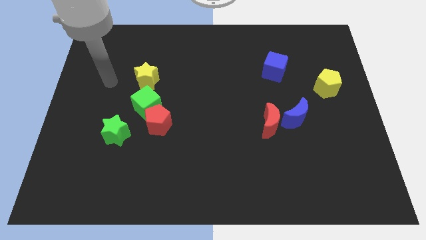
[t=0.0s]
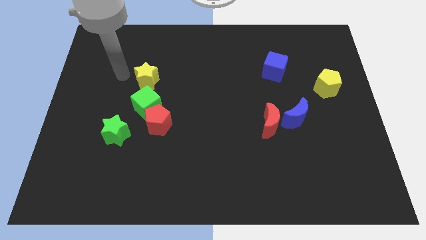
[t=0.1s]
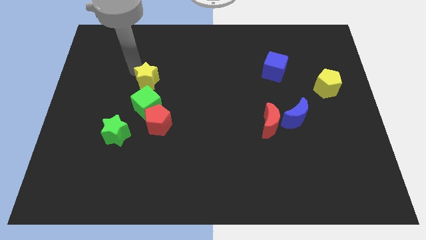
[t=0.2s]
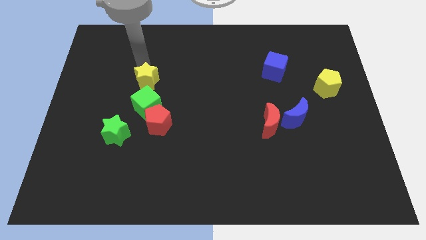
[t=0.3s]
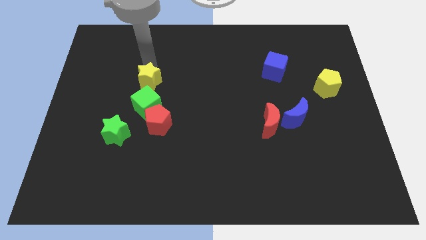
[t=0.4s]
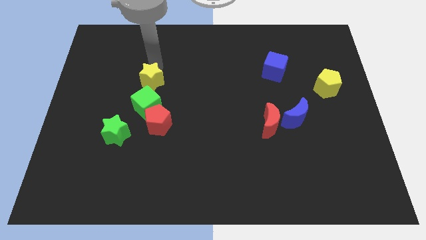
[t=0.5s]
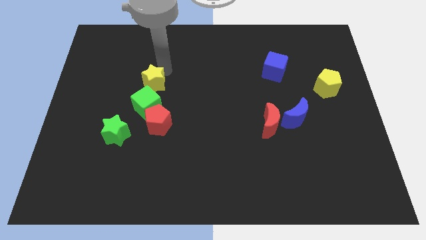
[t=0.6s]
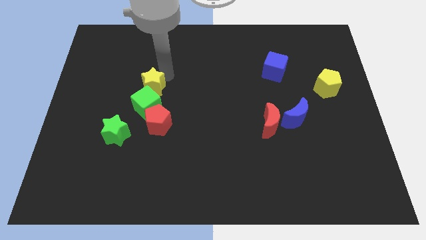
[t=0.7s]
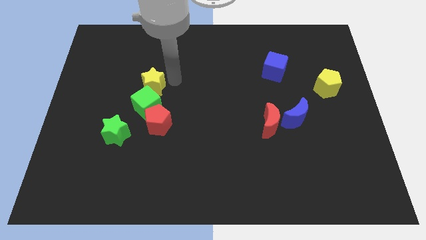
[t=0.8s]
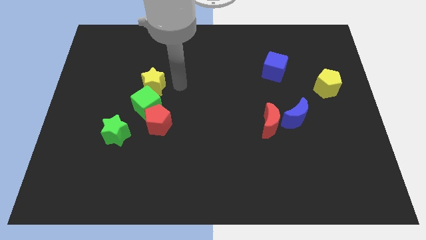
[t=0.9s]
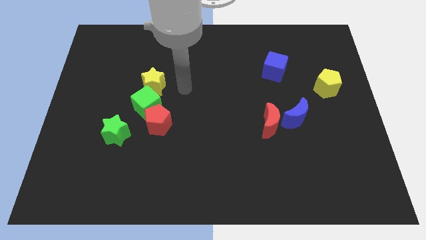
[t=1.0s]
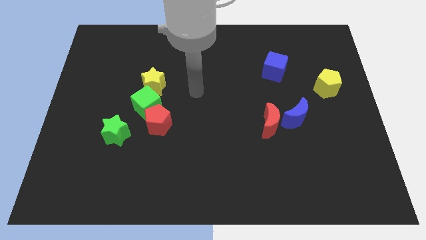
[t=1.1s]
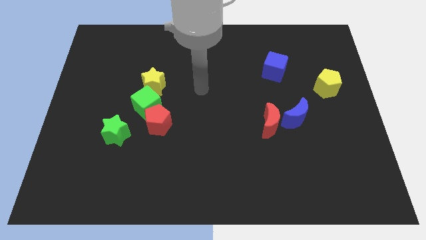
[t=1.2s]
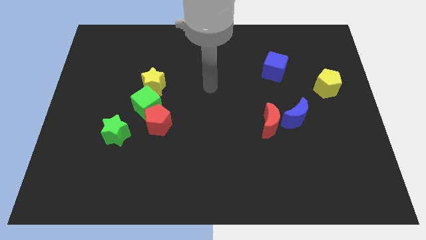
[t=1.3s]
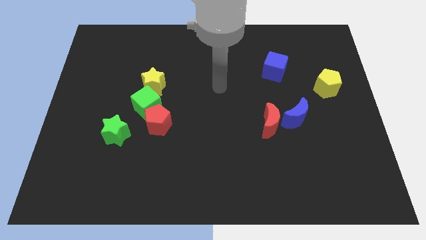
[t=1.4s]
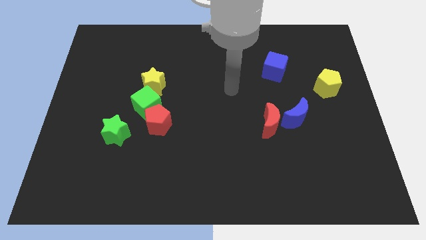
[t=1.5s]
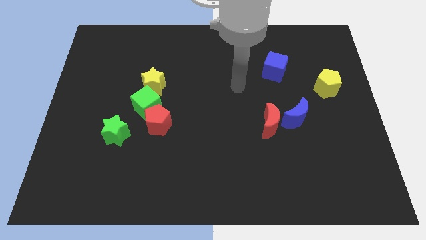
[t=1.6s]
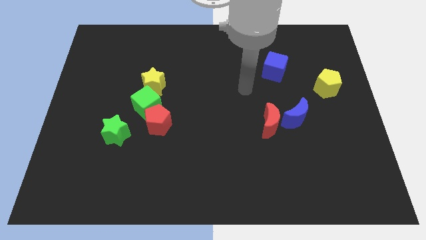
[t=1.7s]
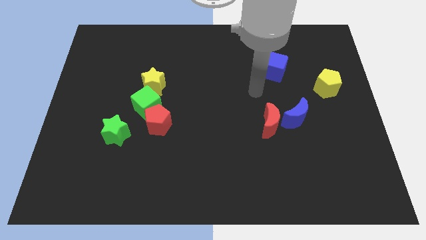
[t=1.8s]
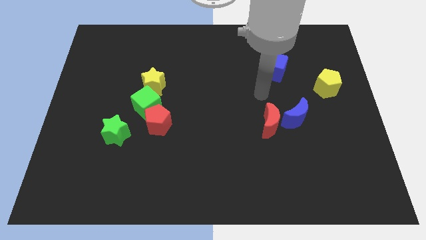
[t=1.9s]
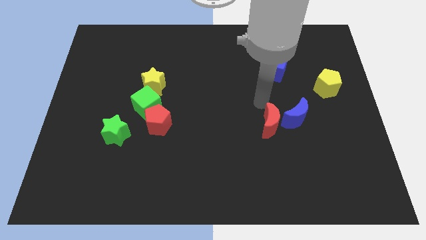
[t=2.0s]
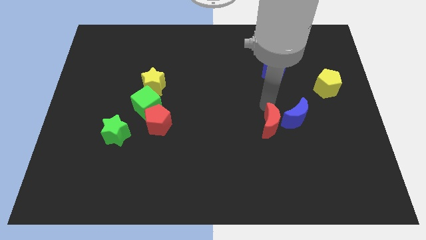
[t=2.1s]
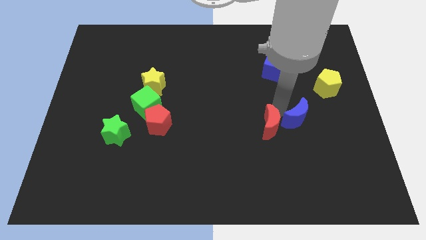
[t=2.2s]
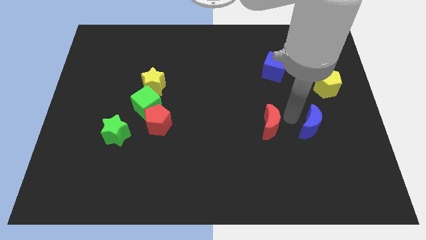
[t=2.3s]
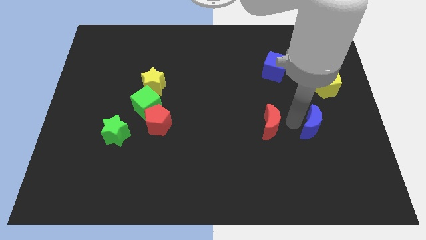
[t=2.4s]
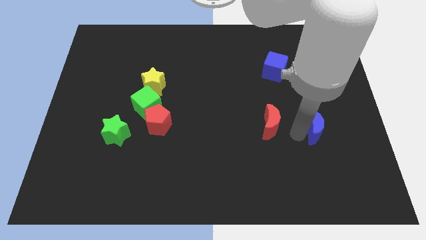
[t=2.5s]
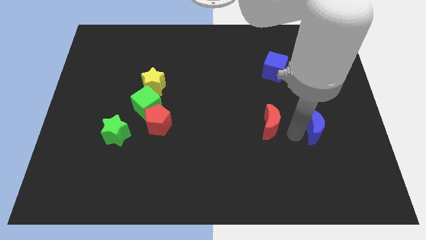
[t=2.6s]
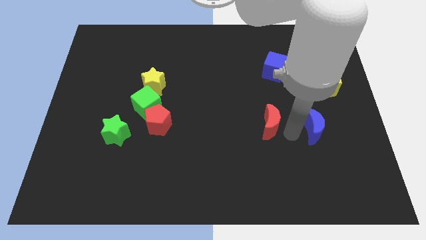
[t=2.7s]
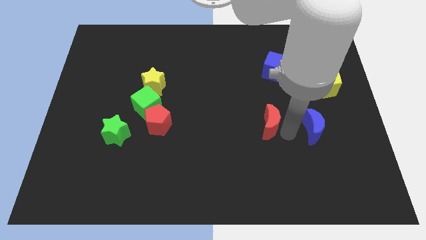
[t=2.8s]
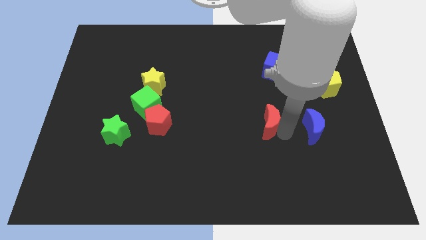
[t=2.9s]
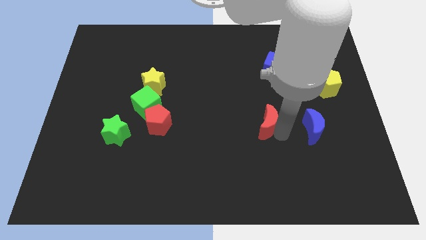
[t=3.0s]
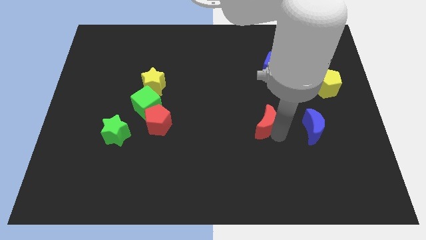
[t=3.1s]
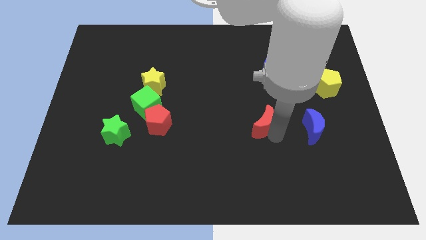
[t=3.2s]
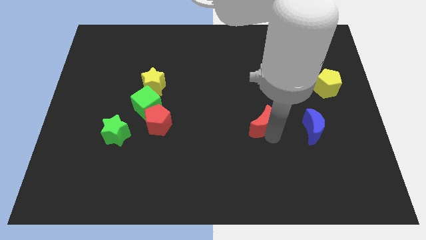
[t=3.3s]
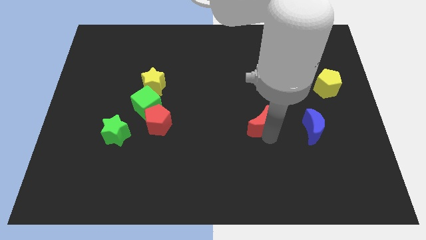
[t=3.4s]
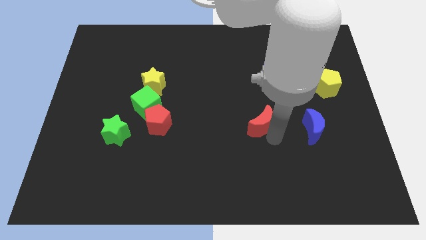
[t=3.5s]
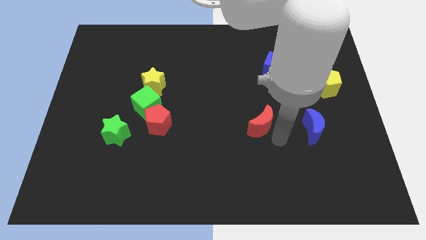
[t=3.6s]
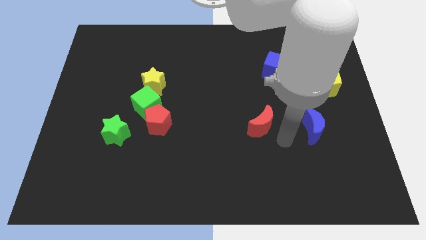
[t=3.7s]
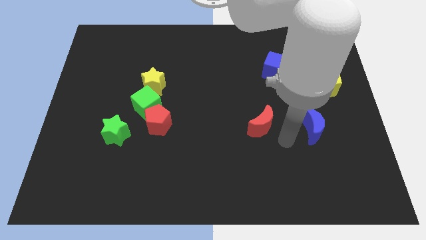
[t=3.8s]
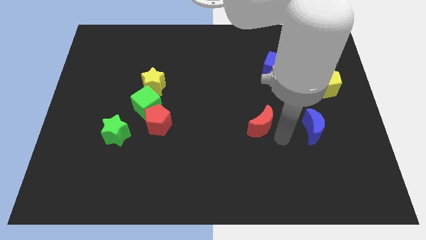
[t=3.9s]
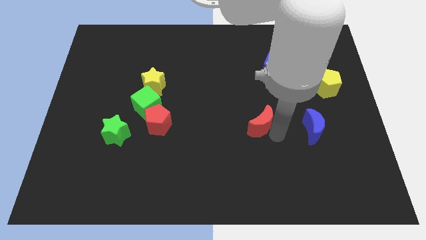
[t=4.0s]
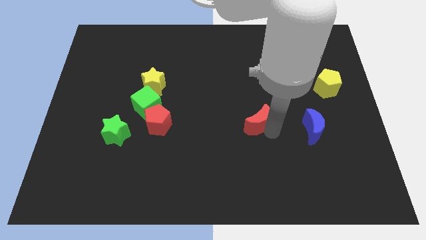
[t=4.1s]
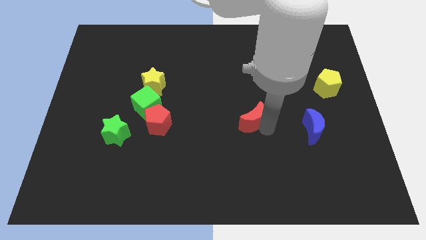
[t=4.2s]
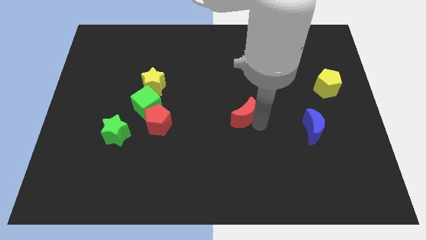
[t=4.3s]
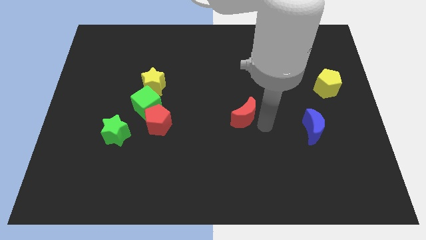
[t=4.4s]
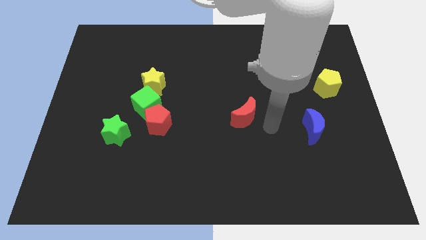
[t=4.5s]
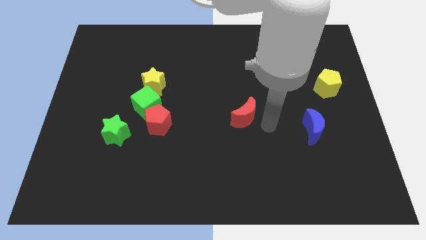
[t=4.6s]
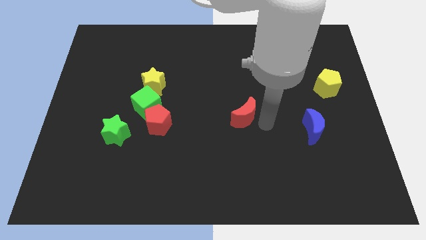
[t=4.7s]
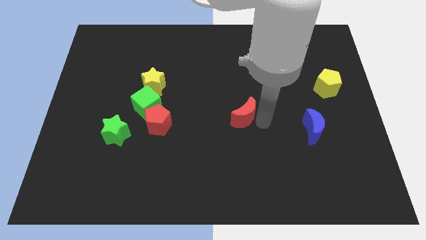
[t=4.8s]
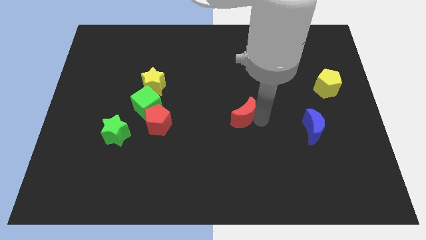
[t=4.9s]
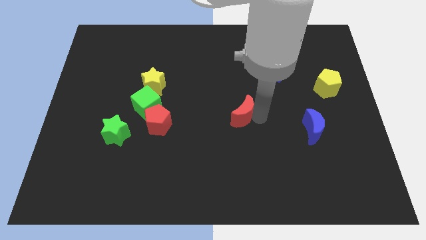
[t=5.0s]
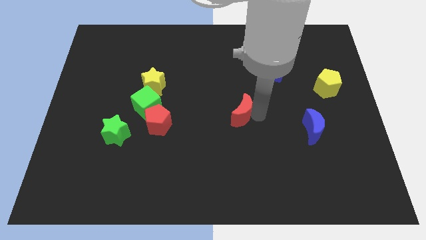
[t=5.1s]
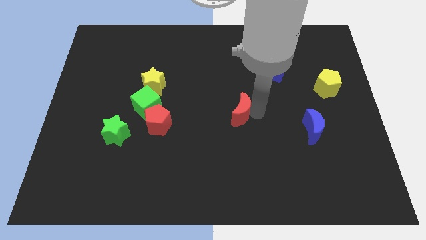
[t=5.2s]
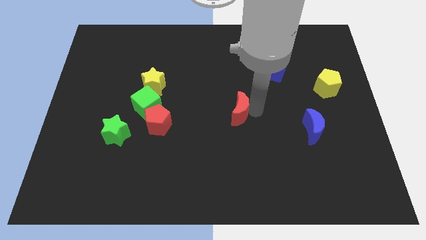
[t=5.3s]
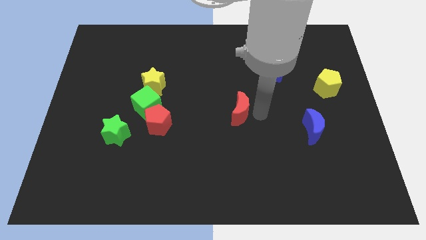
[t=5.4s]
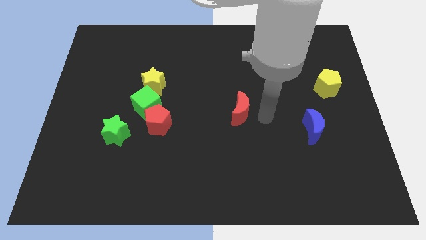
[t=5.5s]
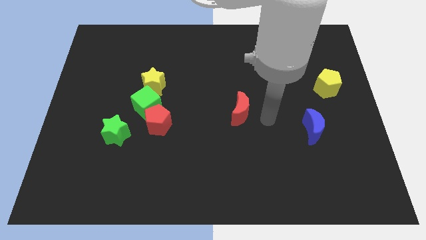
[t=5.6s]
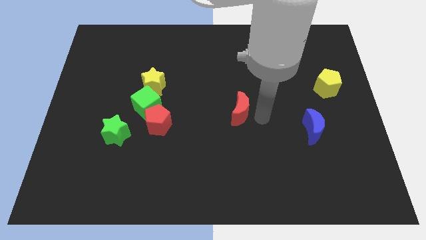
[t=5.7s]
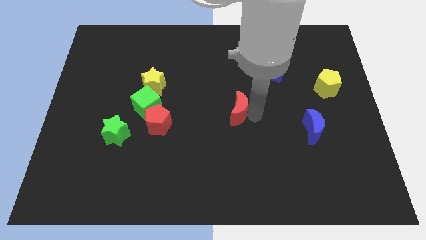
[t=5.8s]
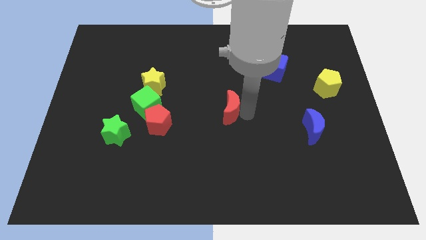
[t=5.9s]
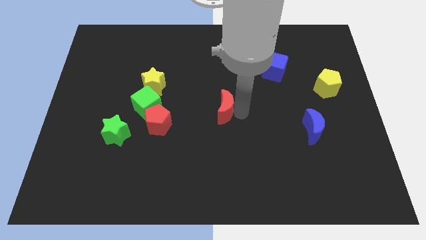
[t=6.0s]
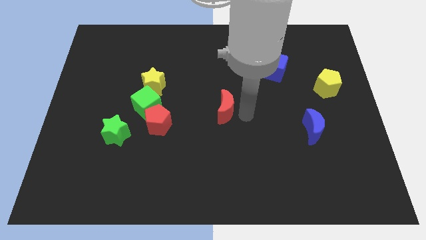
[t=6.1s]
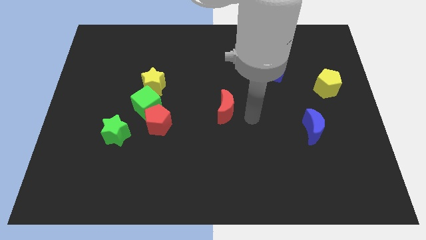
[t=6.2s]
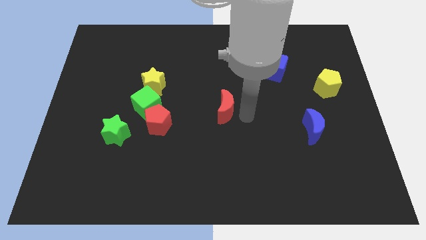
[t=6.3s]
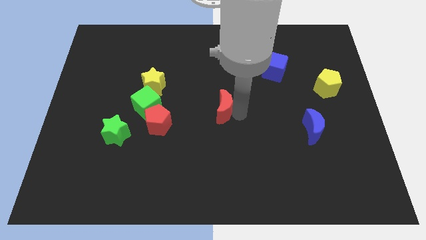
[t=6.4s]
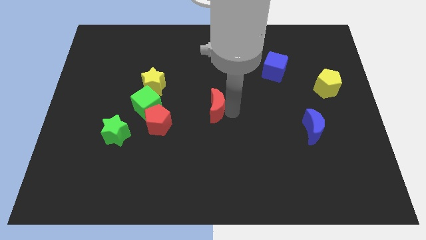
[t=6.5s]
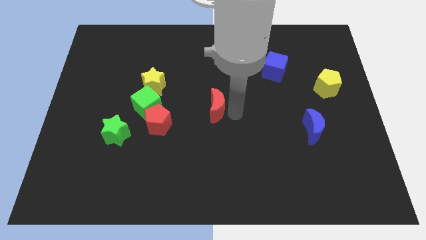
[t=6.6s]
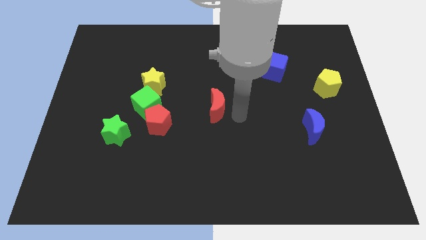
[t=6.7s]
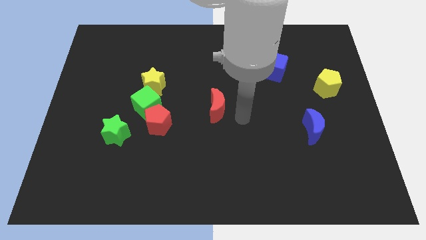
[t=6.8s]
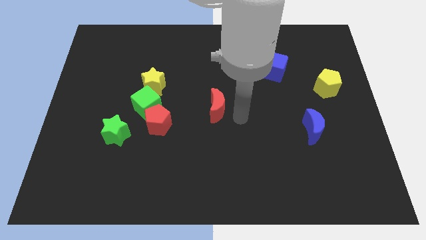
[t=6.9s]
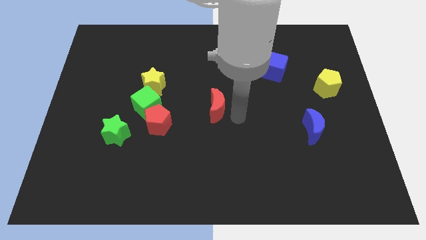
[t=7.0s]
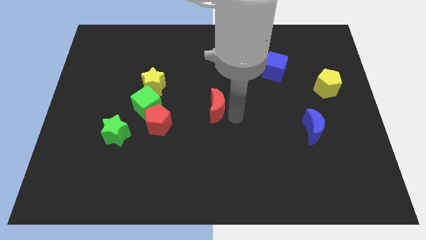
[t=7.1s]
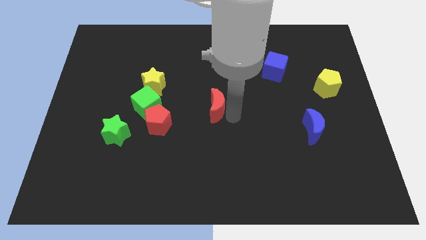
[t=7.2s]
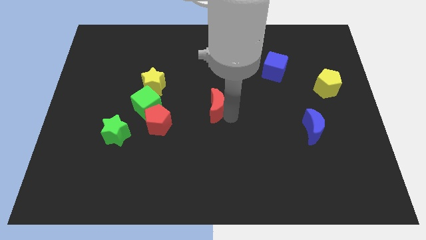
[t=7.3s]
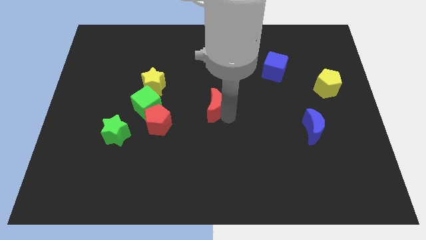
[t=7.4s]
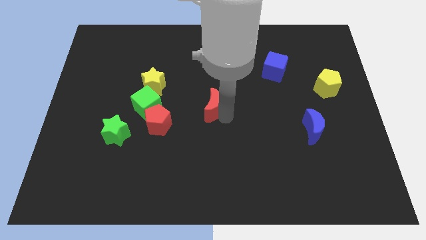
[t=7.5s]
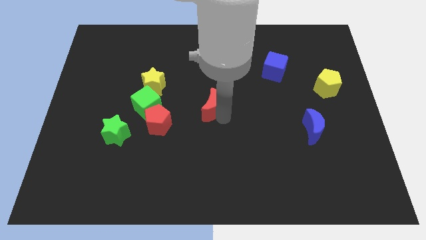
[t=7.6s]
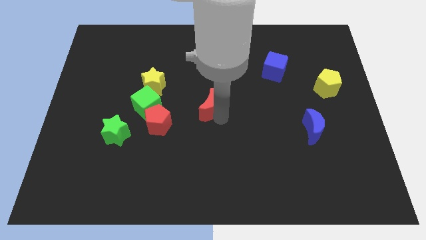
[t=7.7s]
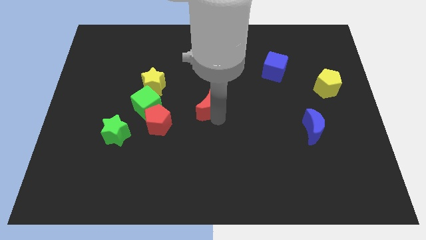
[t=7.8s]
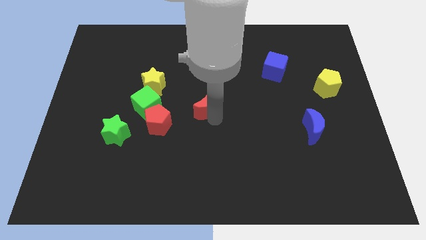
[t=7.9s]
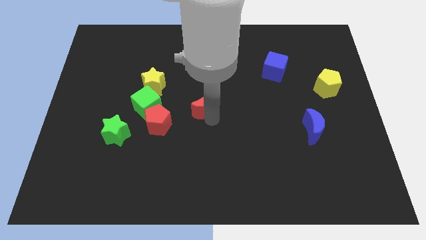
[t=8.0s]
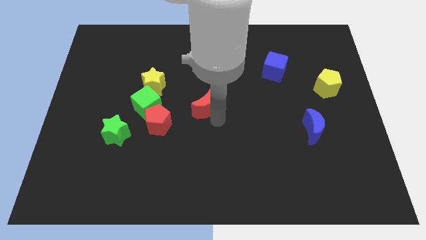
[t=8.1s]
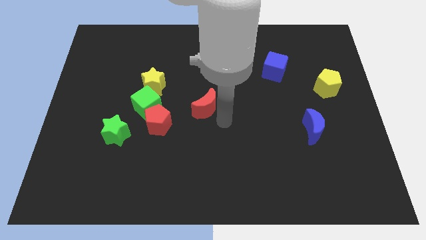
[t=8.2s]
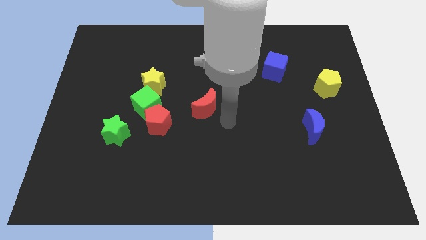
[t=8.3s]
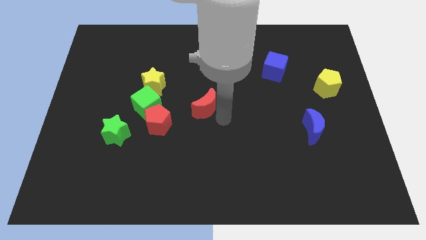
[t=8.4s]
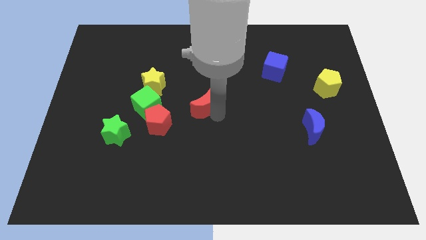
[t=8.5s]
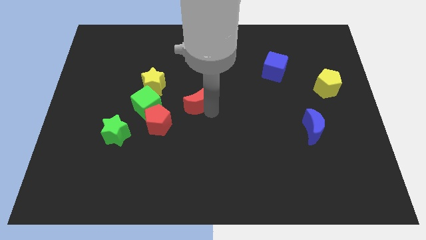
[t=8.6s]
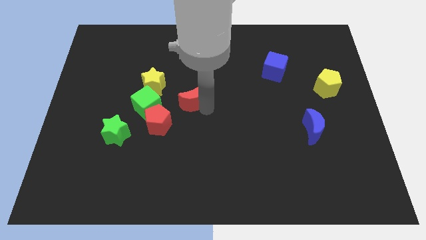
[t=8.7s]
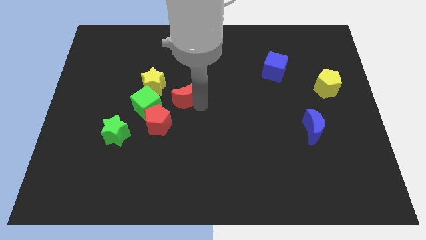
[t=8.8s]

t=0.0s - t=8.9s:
slide the red moon to the top right side of the green cube
